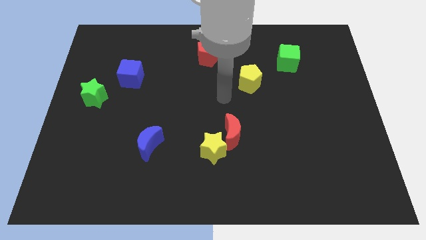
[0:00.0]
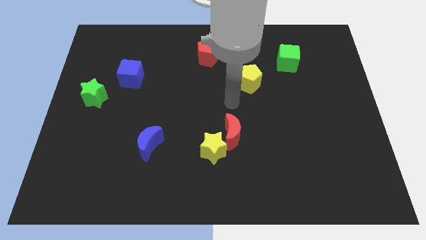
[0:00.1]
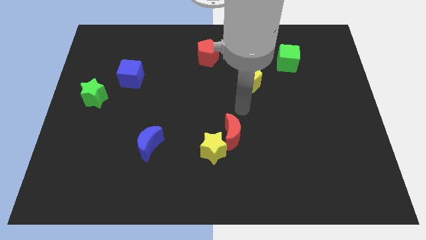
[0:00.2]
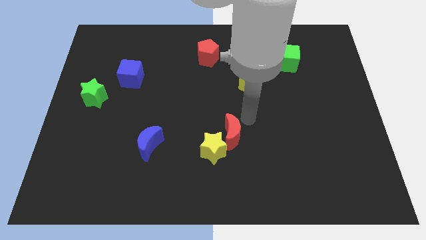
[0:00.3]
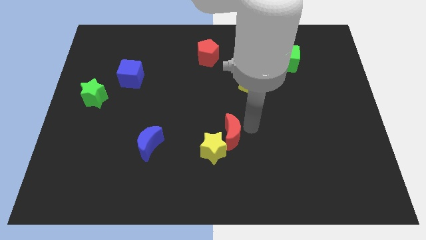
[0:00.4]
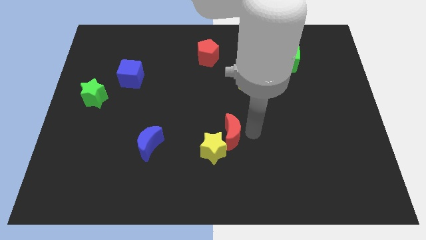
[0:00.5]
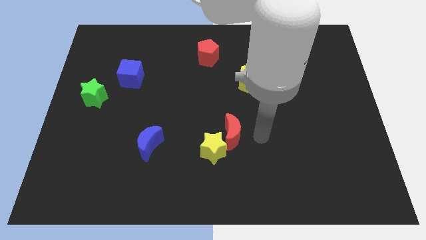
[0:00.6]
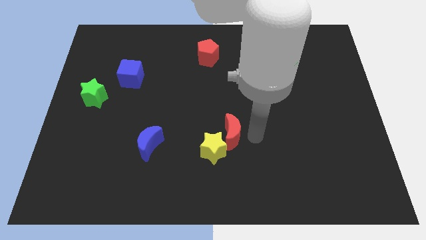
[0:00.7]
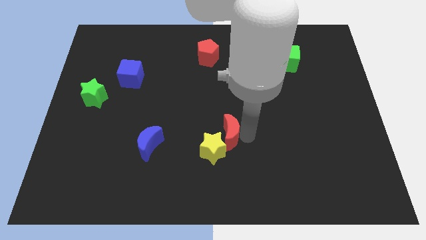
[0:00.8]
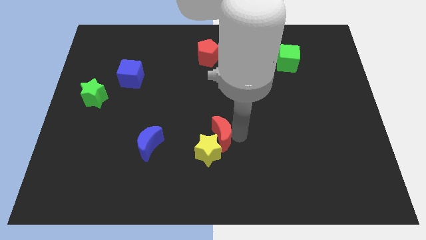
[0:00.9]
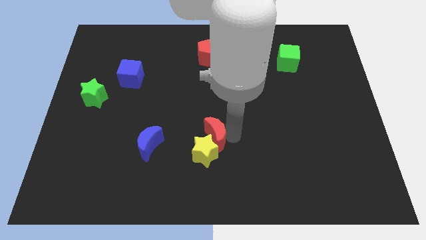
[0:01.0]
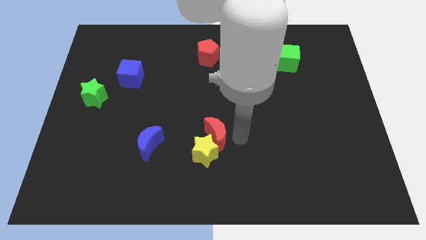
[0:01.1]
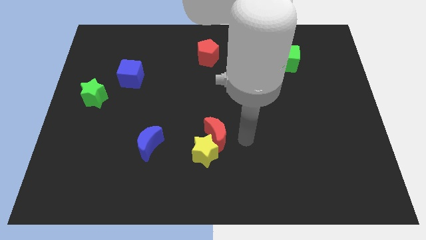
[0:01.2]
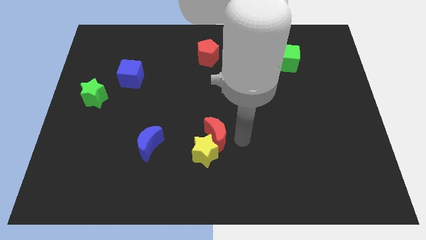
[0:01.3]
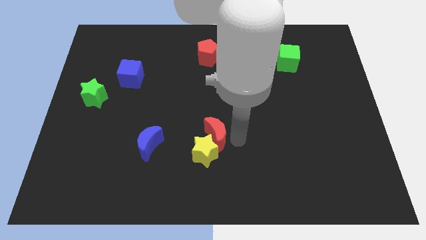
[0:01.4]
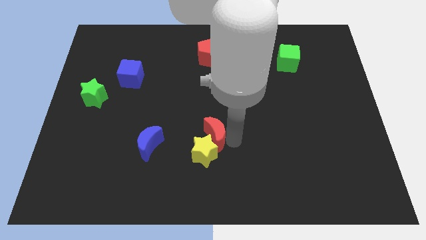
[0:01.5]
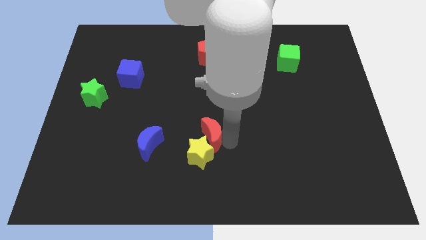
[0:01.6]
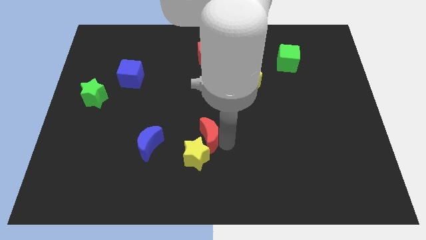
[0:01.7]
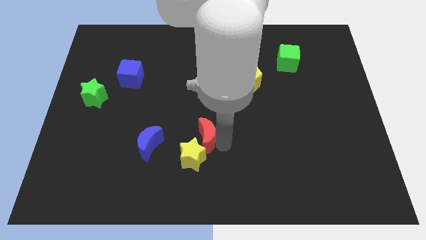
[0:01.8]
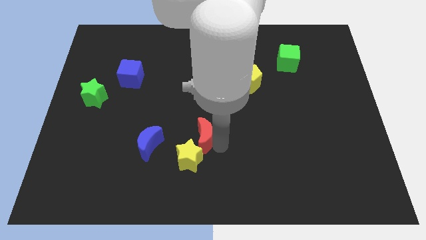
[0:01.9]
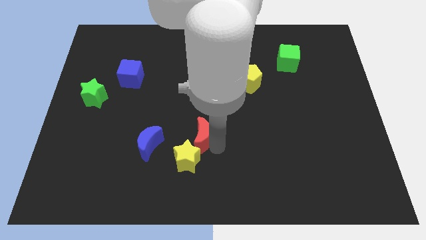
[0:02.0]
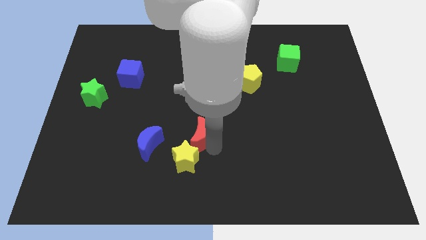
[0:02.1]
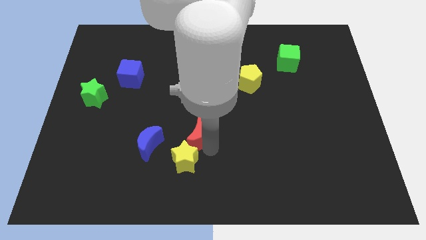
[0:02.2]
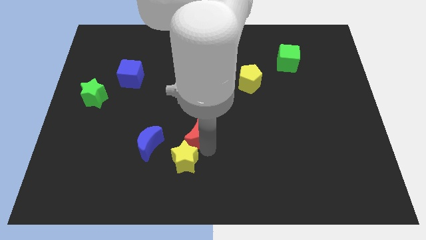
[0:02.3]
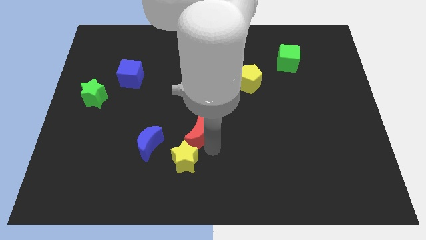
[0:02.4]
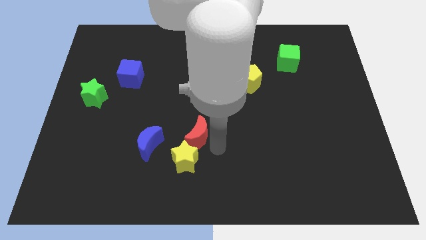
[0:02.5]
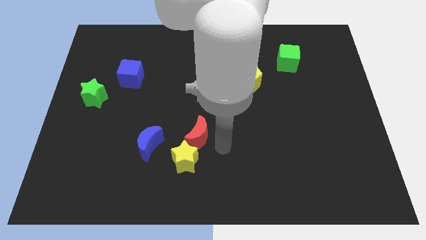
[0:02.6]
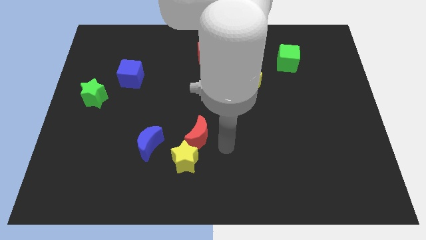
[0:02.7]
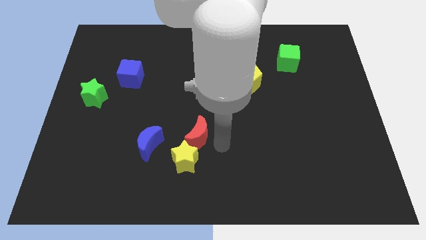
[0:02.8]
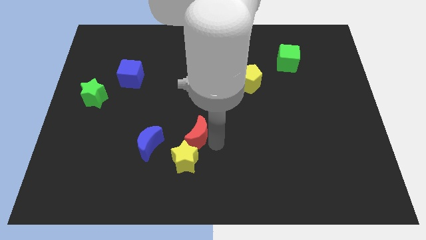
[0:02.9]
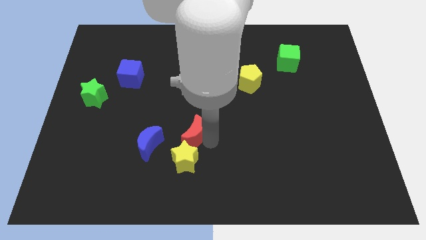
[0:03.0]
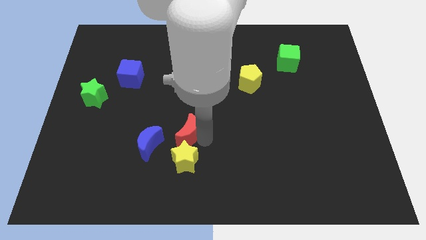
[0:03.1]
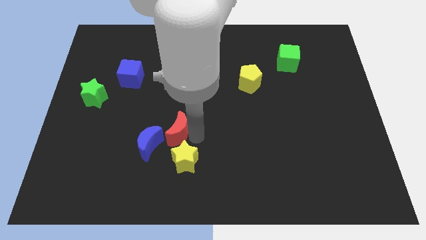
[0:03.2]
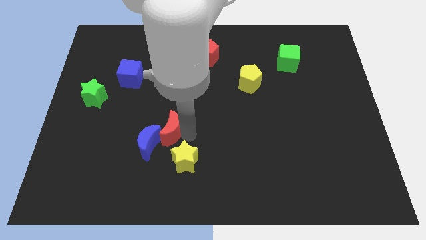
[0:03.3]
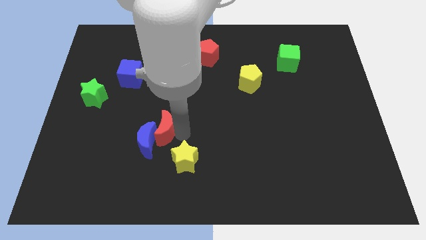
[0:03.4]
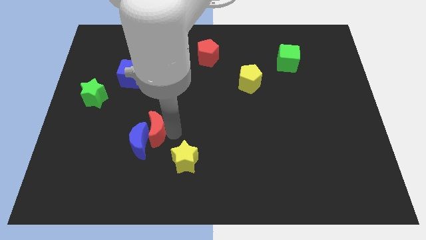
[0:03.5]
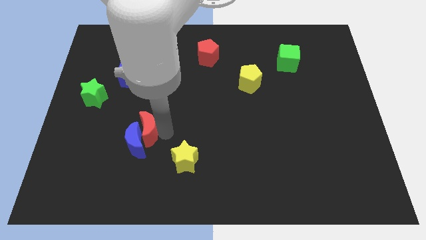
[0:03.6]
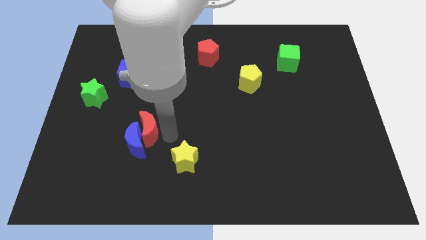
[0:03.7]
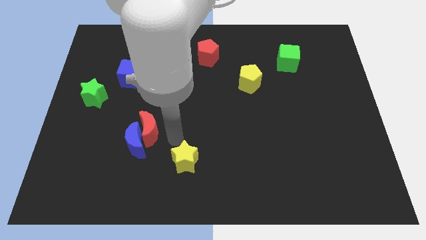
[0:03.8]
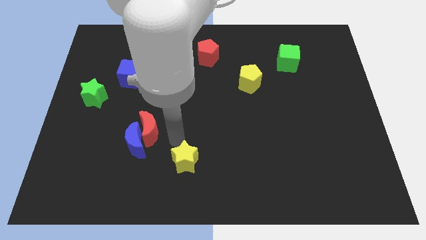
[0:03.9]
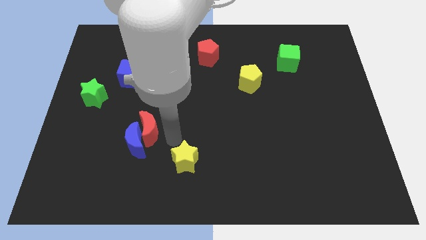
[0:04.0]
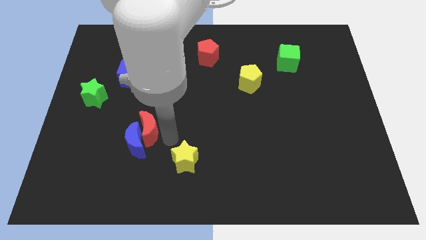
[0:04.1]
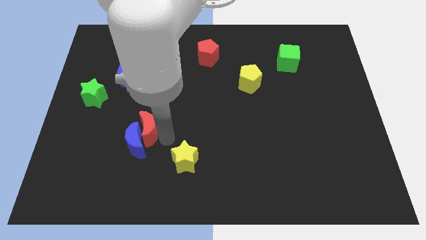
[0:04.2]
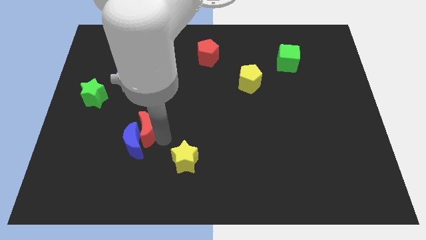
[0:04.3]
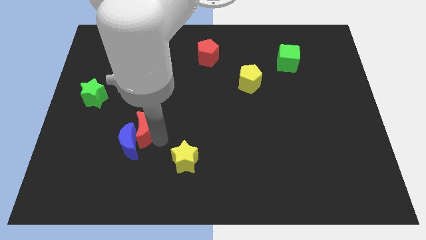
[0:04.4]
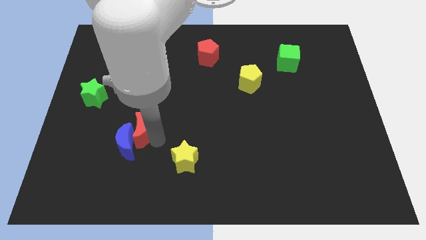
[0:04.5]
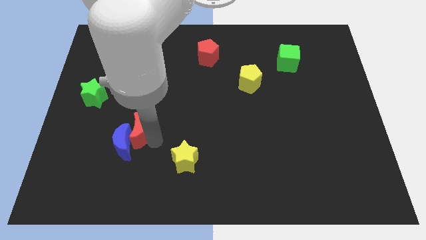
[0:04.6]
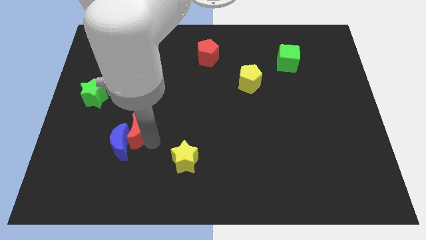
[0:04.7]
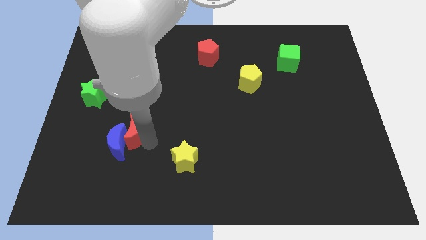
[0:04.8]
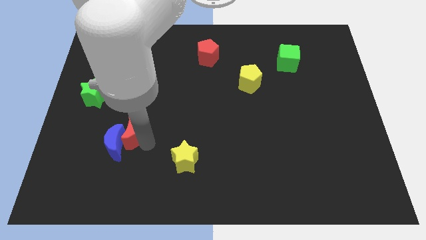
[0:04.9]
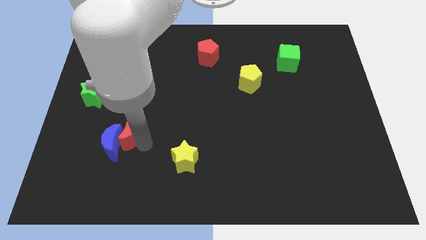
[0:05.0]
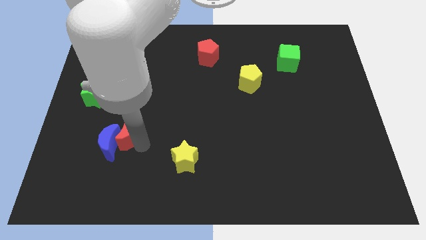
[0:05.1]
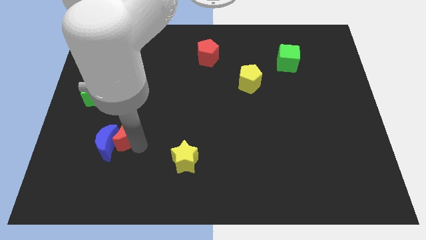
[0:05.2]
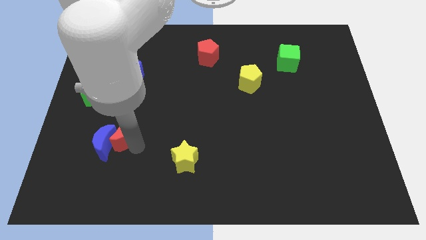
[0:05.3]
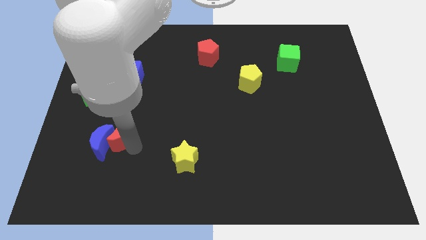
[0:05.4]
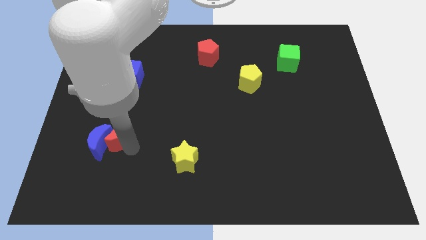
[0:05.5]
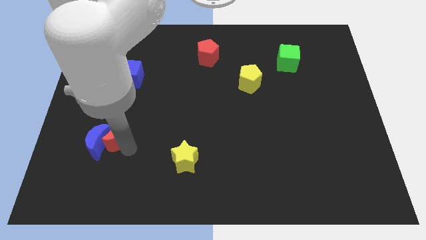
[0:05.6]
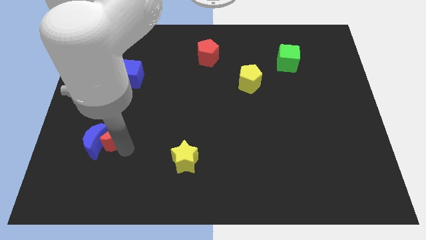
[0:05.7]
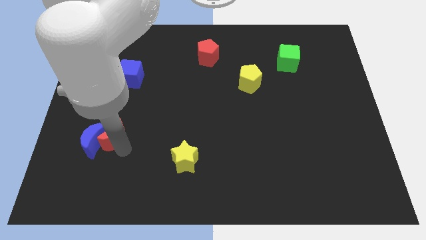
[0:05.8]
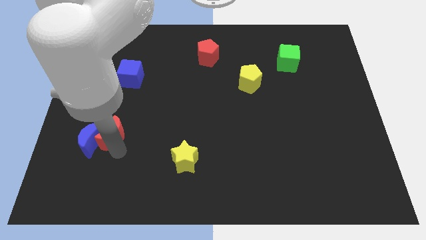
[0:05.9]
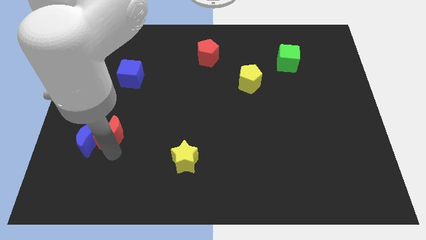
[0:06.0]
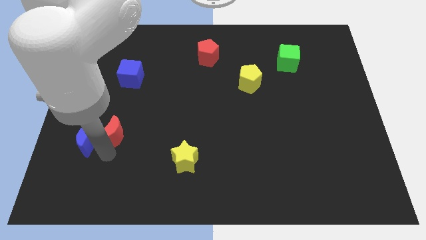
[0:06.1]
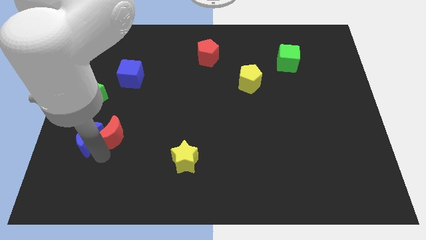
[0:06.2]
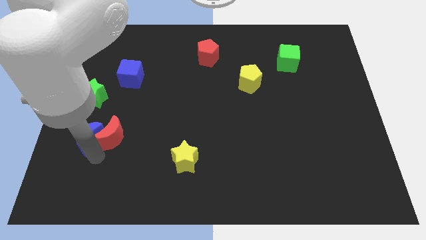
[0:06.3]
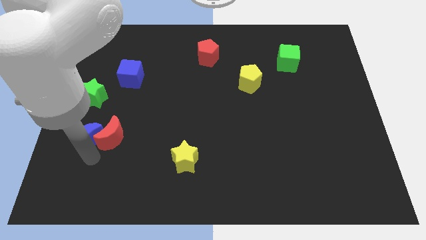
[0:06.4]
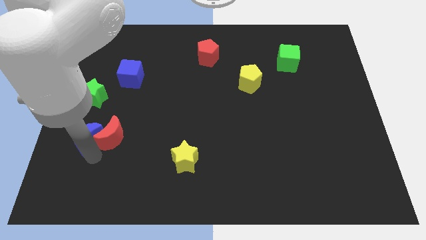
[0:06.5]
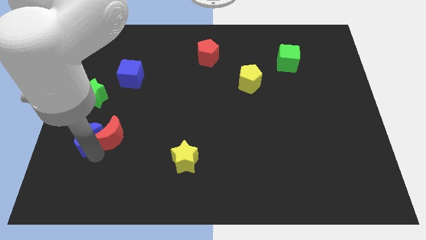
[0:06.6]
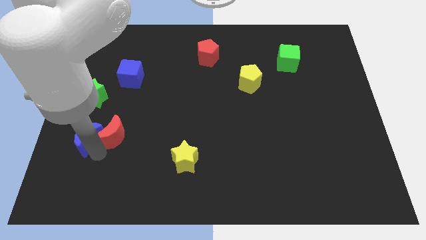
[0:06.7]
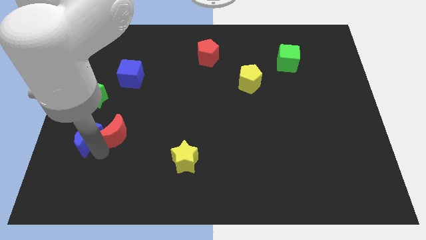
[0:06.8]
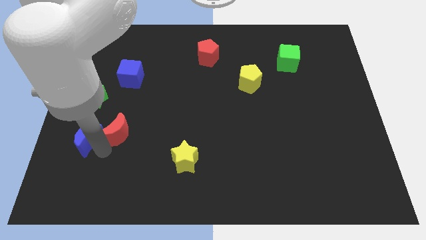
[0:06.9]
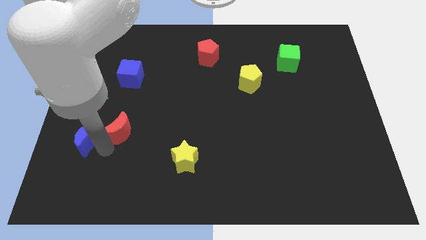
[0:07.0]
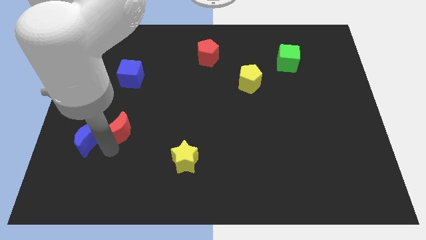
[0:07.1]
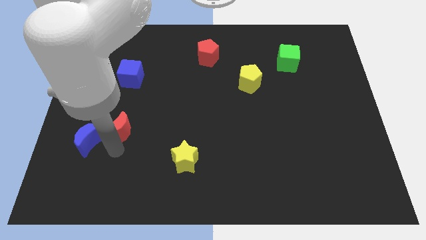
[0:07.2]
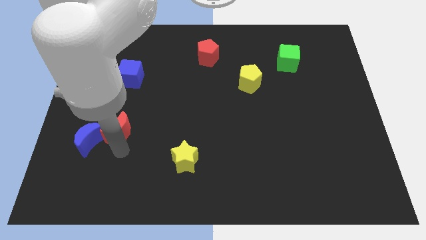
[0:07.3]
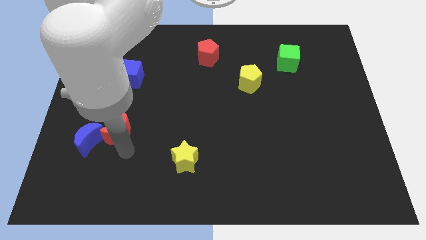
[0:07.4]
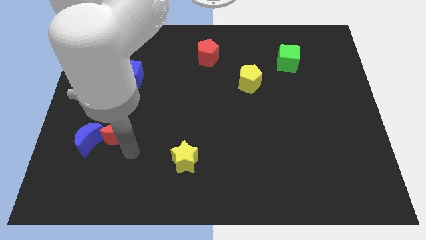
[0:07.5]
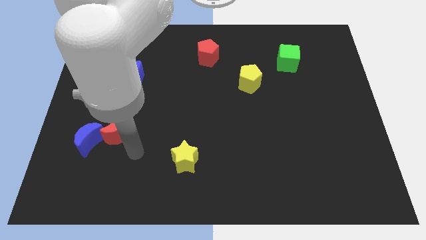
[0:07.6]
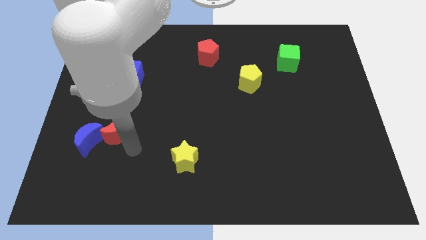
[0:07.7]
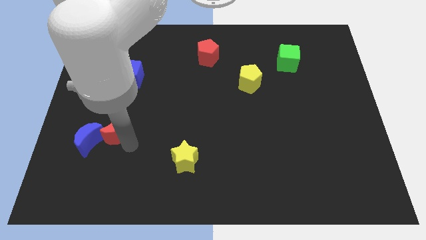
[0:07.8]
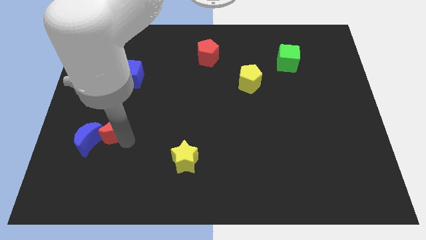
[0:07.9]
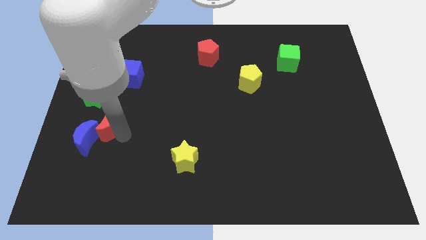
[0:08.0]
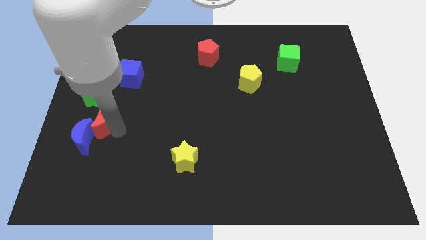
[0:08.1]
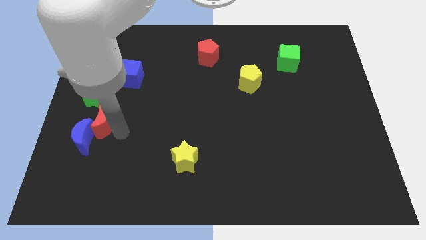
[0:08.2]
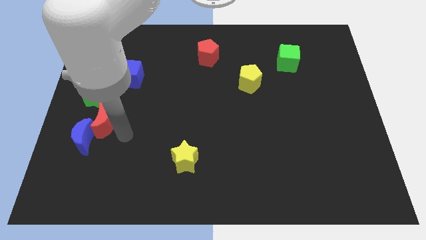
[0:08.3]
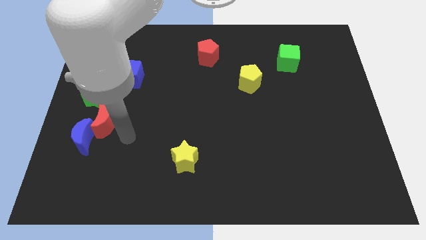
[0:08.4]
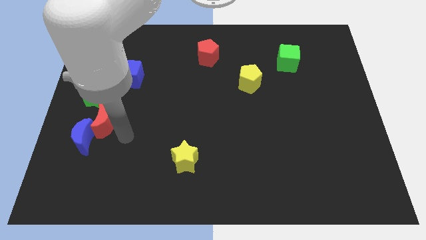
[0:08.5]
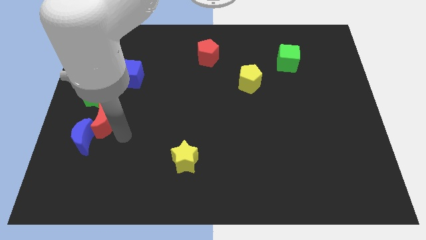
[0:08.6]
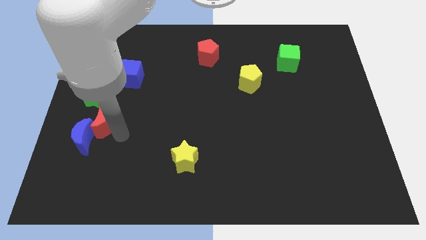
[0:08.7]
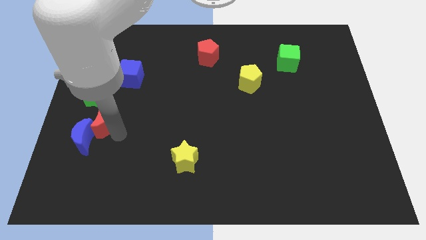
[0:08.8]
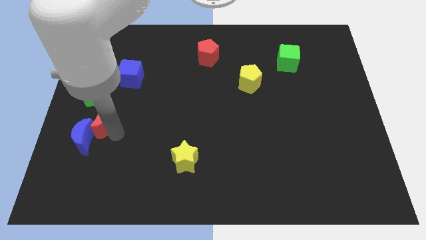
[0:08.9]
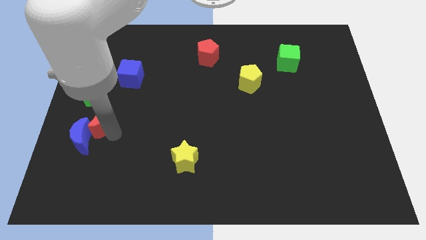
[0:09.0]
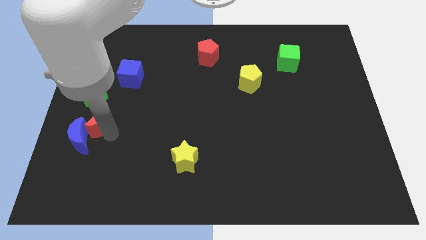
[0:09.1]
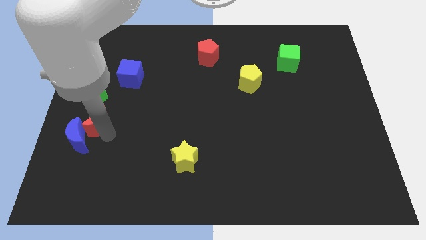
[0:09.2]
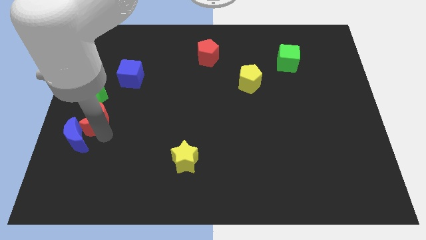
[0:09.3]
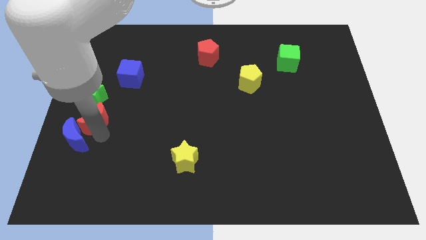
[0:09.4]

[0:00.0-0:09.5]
put the red moon to the left side of the board
